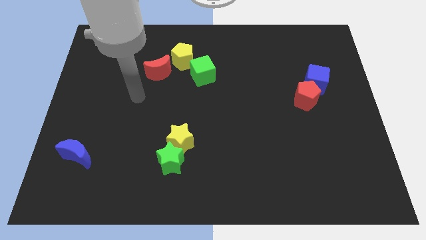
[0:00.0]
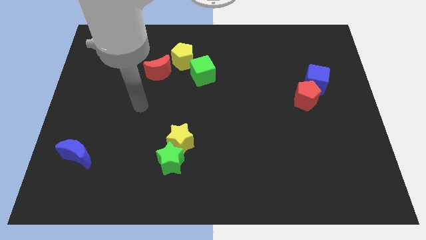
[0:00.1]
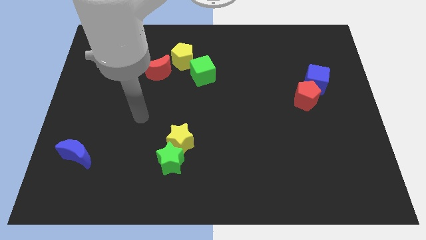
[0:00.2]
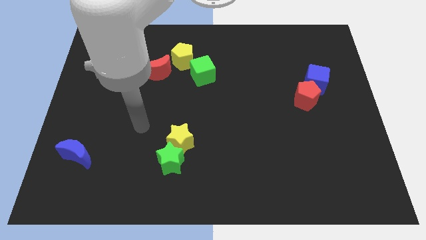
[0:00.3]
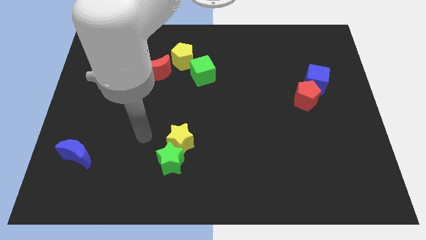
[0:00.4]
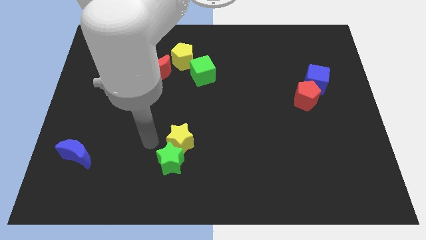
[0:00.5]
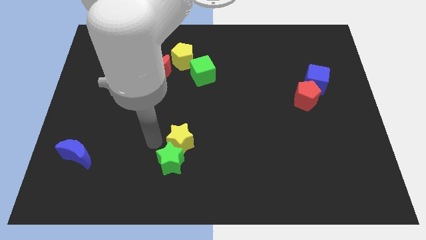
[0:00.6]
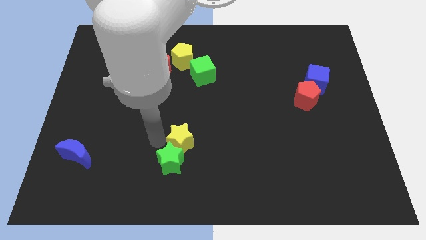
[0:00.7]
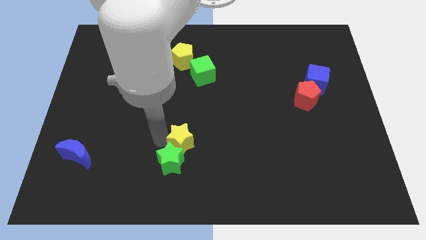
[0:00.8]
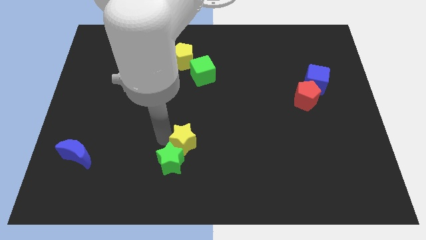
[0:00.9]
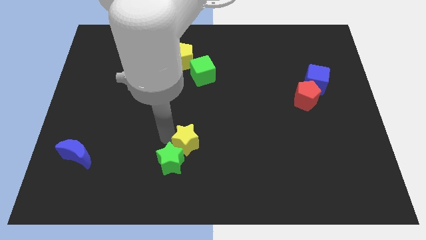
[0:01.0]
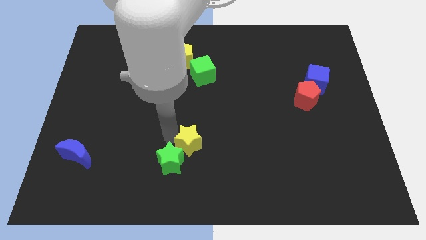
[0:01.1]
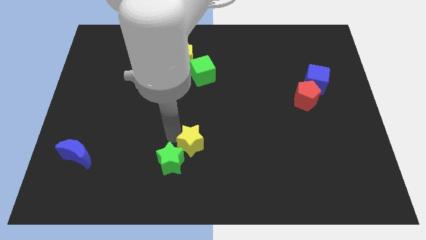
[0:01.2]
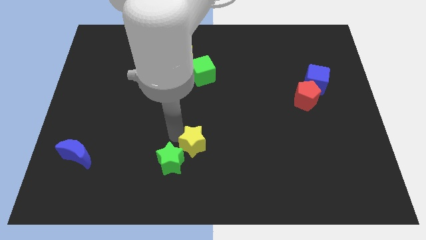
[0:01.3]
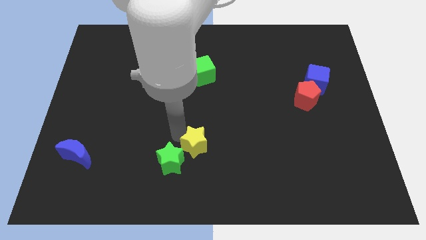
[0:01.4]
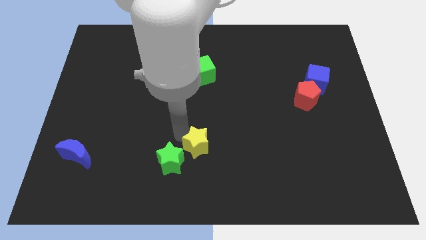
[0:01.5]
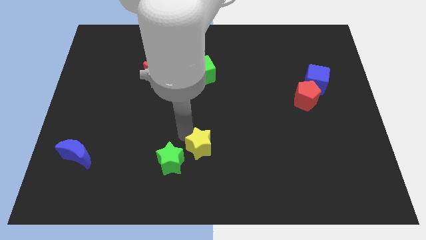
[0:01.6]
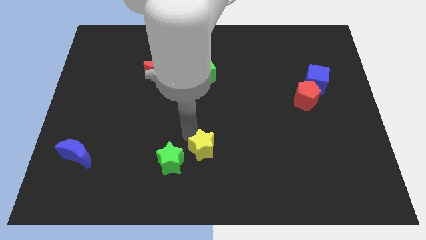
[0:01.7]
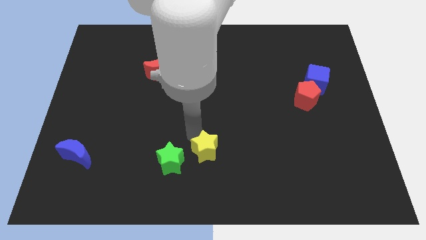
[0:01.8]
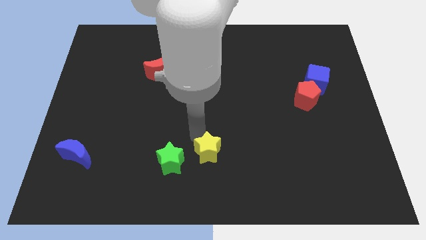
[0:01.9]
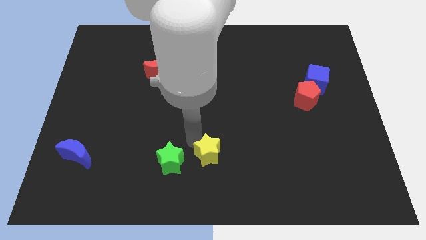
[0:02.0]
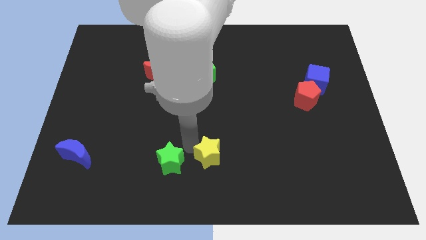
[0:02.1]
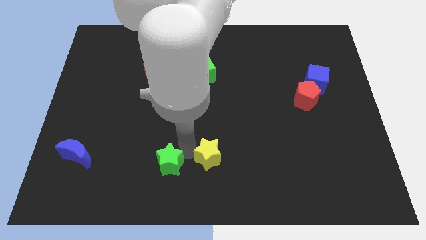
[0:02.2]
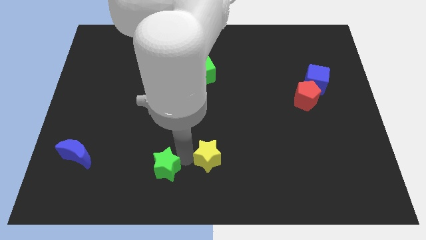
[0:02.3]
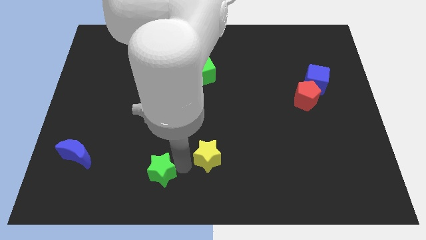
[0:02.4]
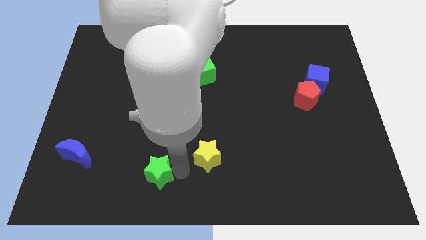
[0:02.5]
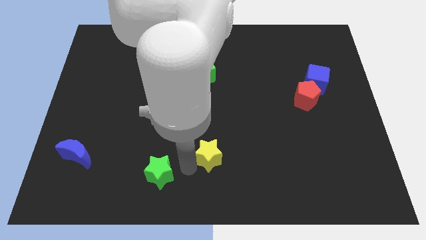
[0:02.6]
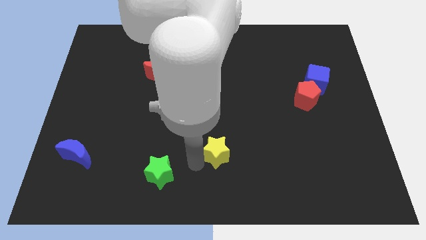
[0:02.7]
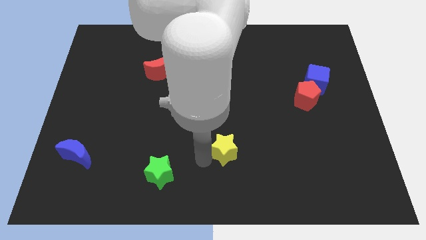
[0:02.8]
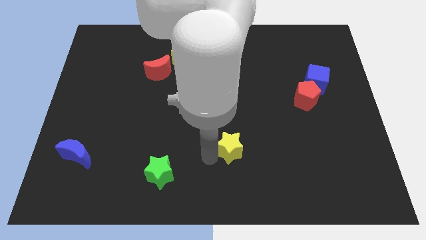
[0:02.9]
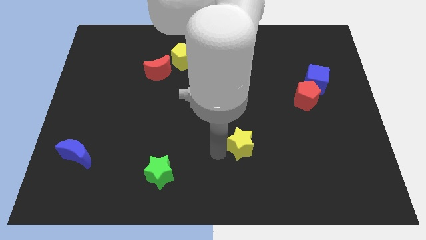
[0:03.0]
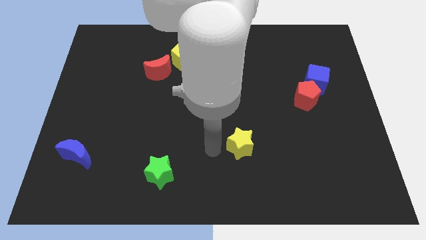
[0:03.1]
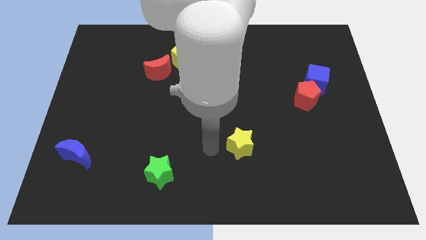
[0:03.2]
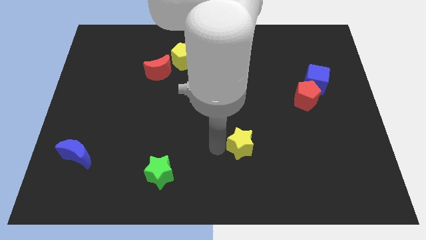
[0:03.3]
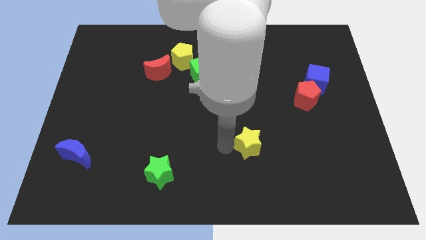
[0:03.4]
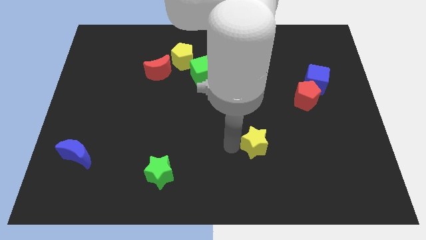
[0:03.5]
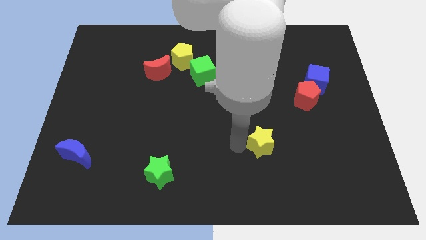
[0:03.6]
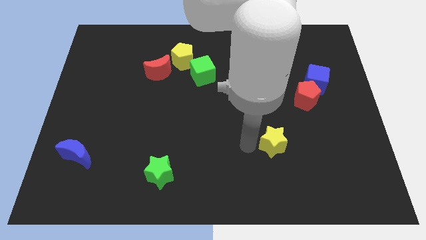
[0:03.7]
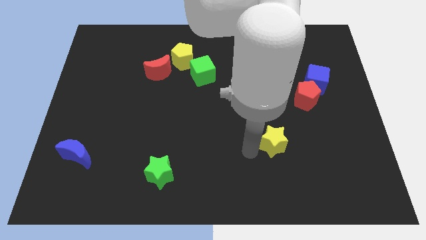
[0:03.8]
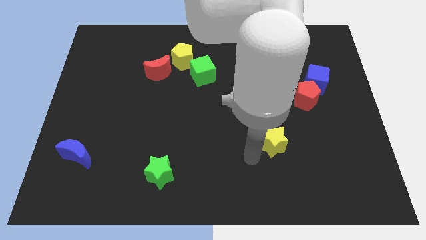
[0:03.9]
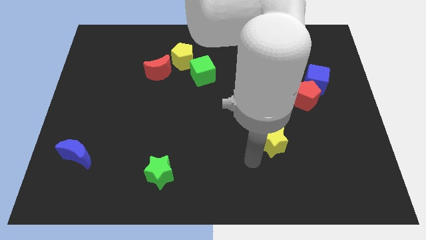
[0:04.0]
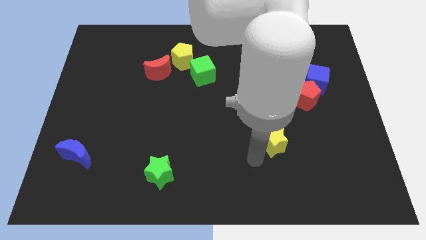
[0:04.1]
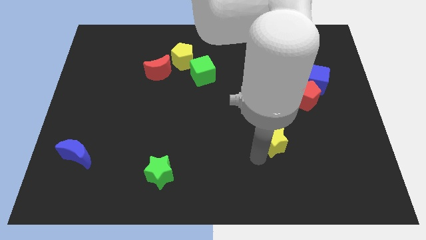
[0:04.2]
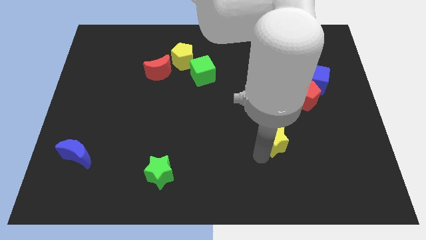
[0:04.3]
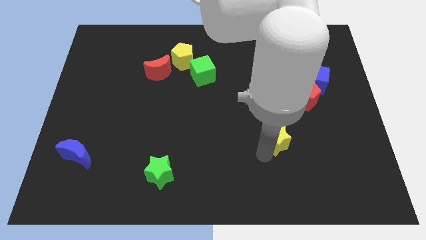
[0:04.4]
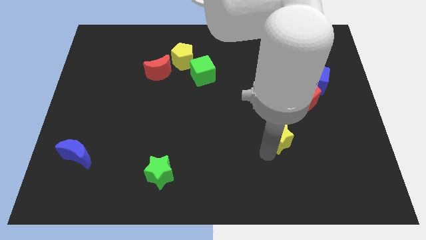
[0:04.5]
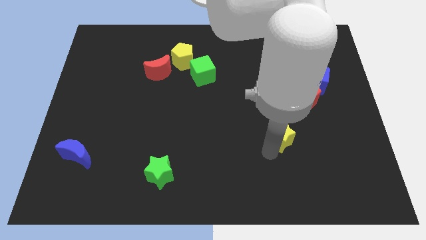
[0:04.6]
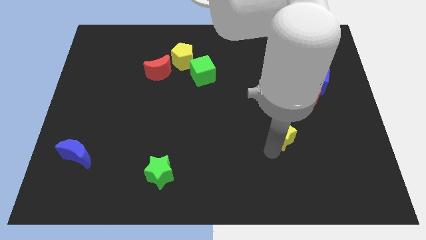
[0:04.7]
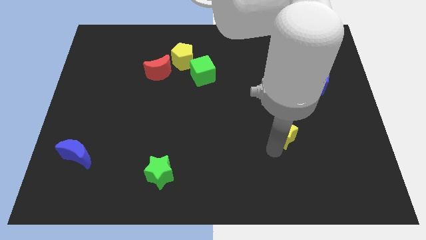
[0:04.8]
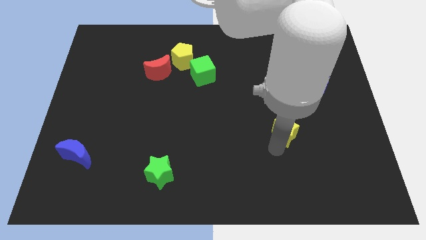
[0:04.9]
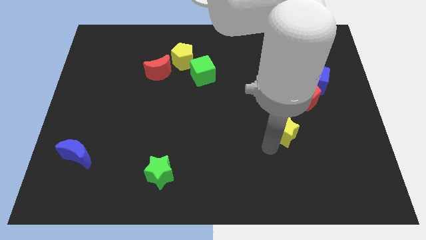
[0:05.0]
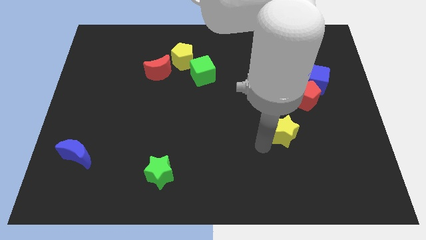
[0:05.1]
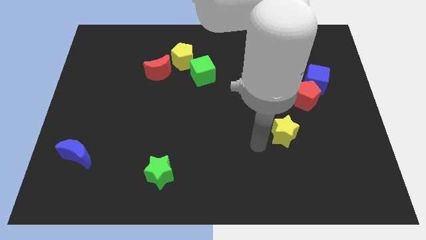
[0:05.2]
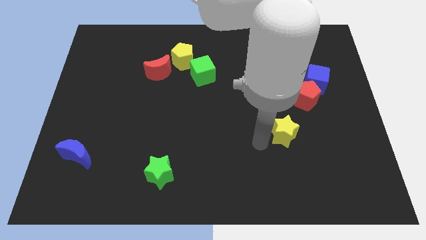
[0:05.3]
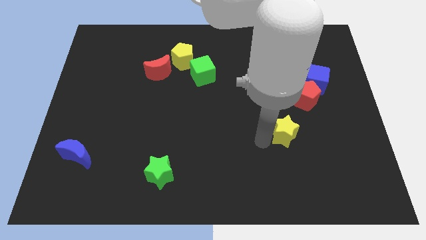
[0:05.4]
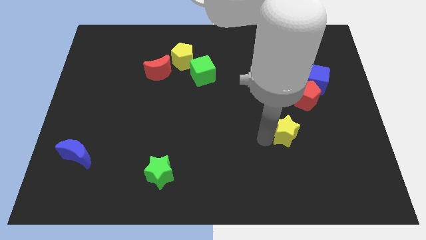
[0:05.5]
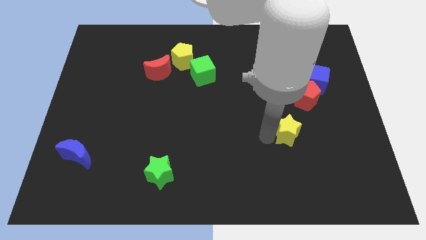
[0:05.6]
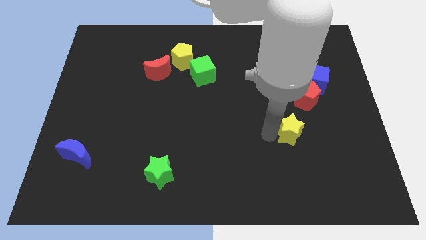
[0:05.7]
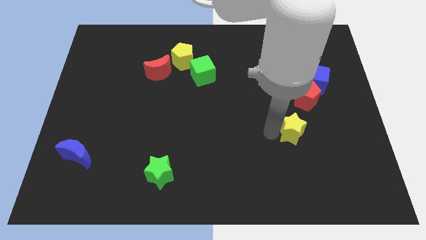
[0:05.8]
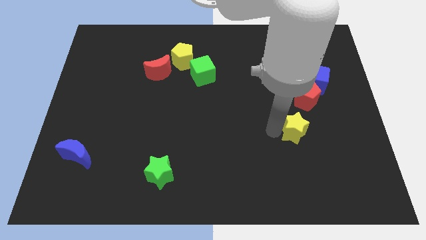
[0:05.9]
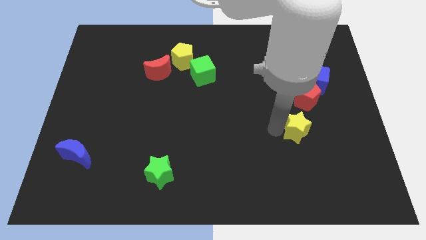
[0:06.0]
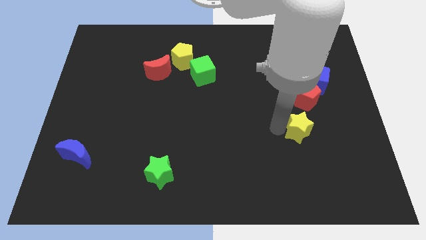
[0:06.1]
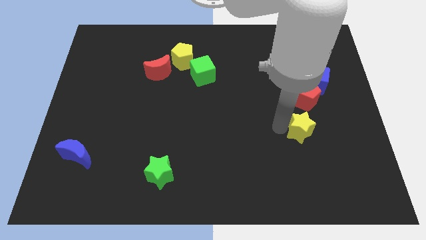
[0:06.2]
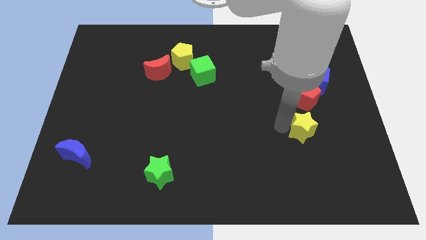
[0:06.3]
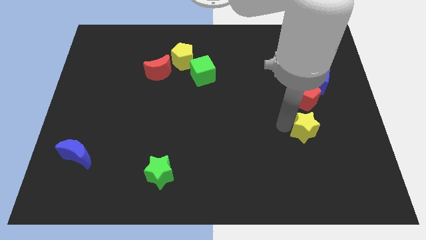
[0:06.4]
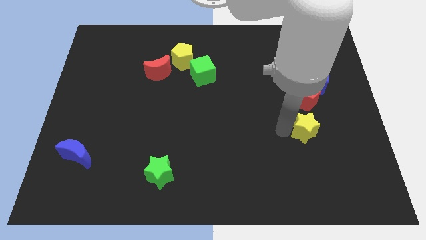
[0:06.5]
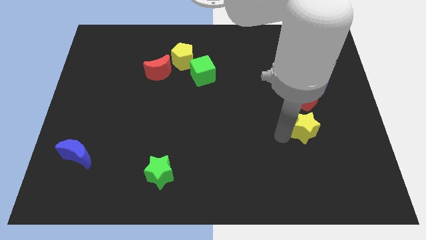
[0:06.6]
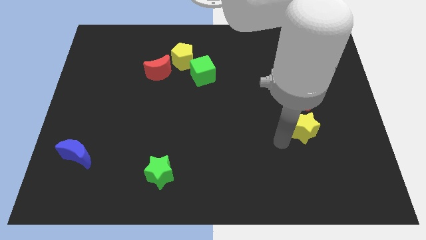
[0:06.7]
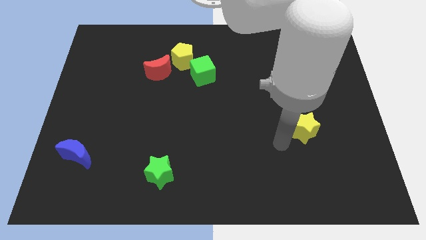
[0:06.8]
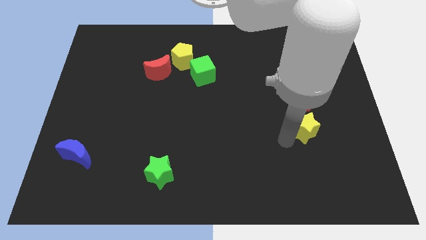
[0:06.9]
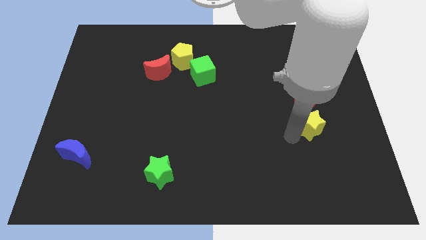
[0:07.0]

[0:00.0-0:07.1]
push the yellow star below the blue cube
